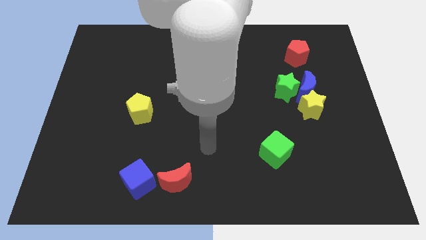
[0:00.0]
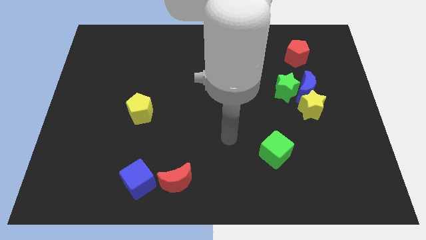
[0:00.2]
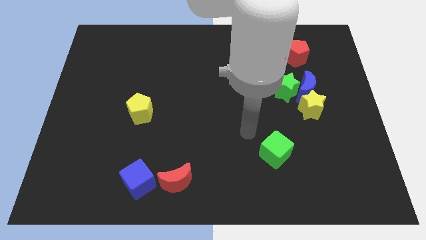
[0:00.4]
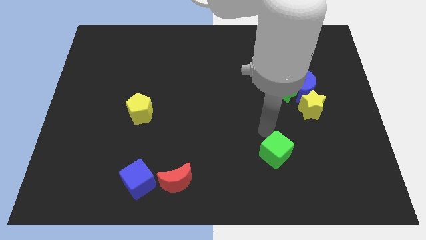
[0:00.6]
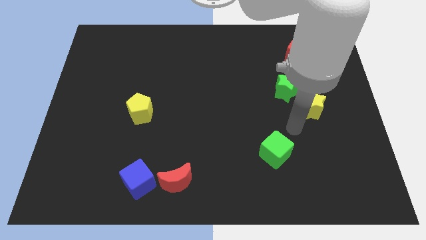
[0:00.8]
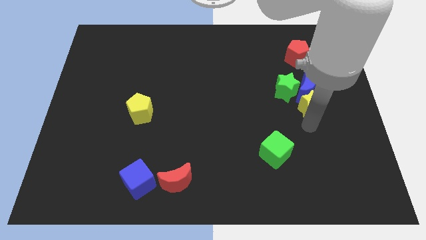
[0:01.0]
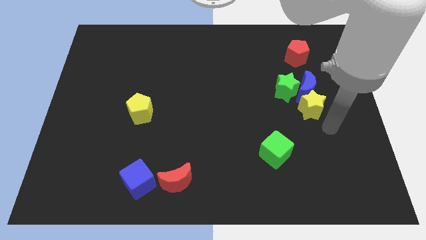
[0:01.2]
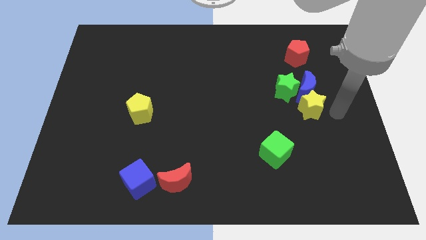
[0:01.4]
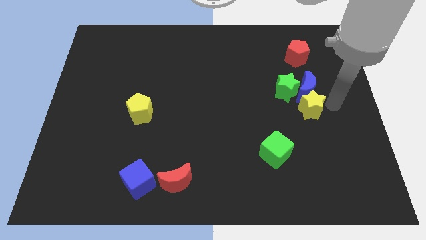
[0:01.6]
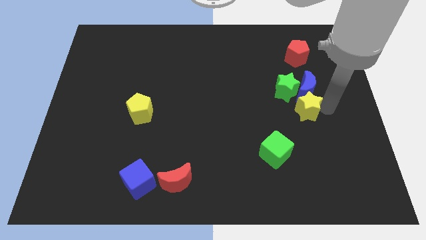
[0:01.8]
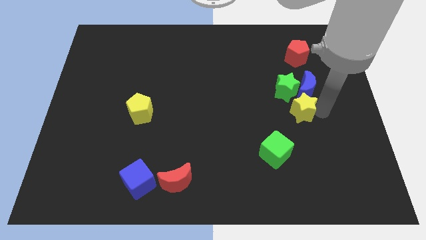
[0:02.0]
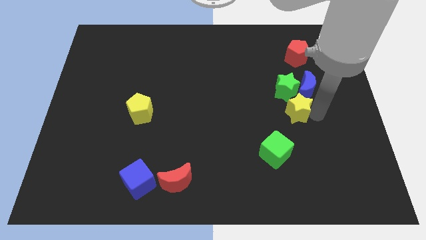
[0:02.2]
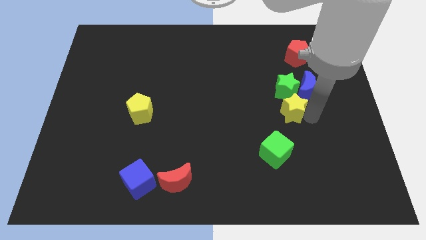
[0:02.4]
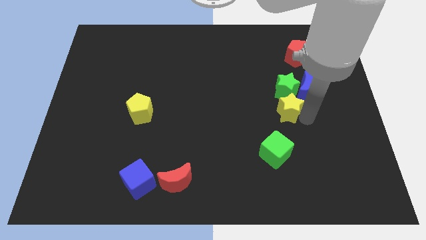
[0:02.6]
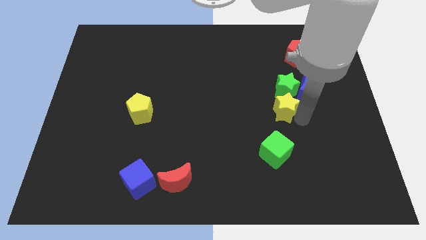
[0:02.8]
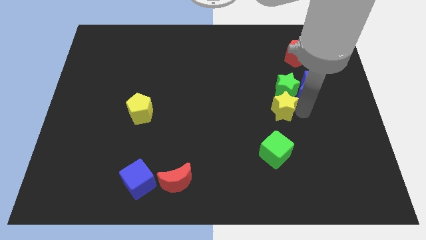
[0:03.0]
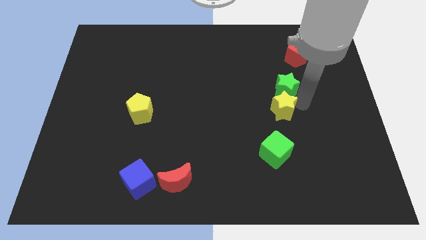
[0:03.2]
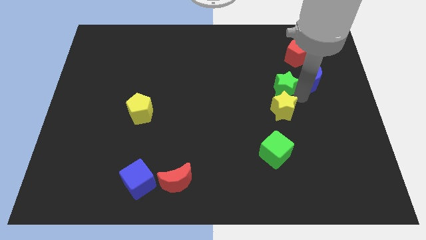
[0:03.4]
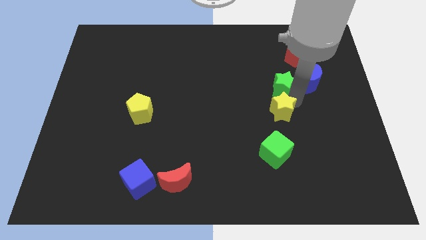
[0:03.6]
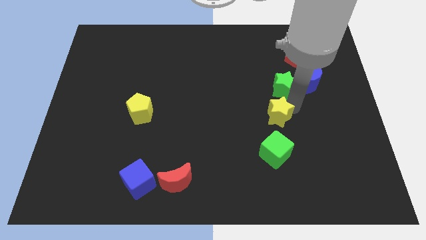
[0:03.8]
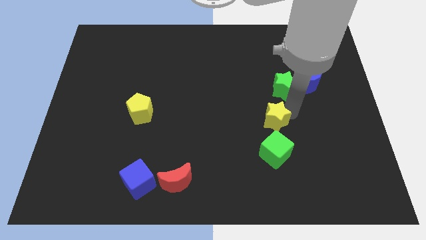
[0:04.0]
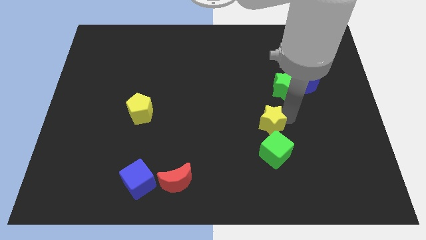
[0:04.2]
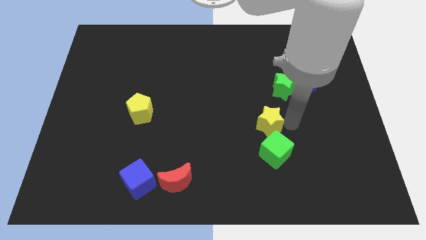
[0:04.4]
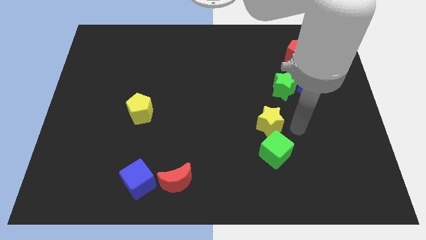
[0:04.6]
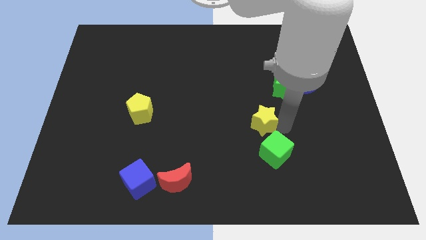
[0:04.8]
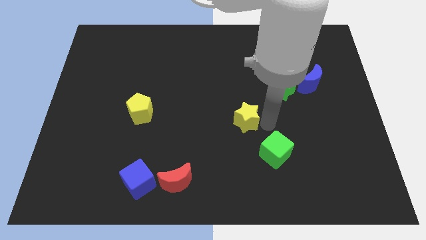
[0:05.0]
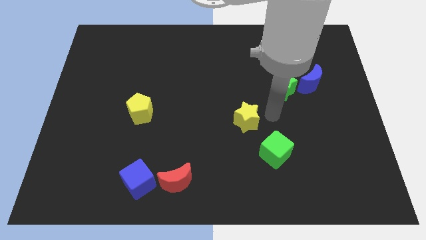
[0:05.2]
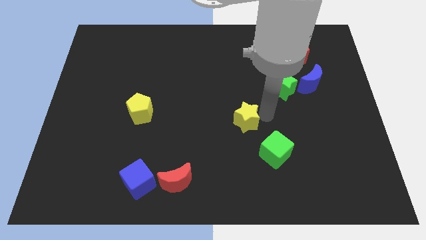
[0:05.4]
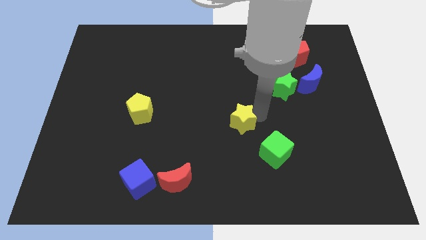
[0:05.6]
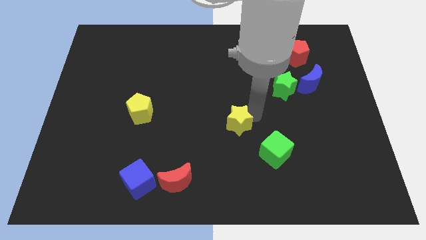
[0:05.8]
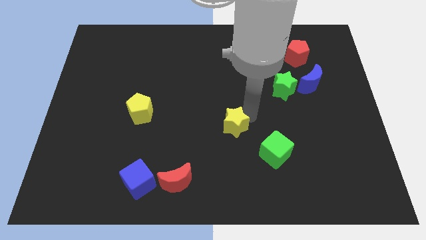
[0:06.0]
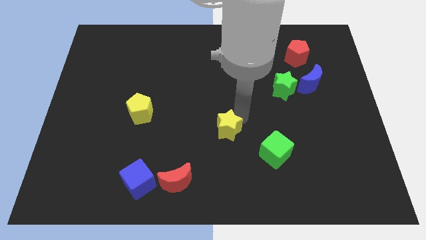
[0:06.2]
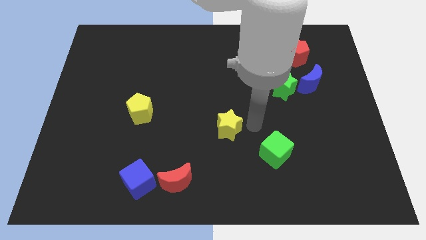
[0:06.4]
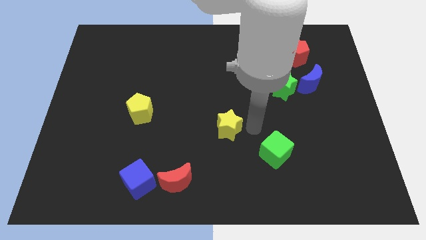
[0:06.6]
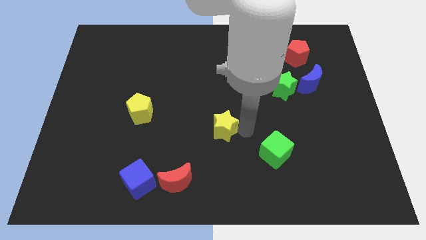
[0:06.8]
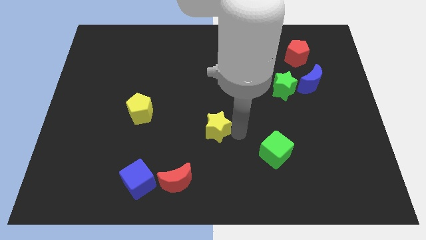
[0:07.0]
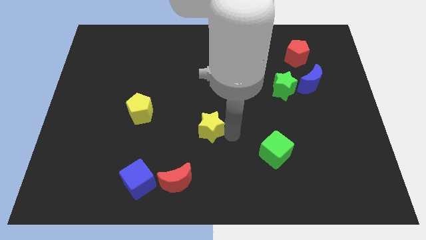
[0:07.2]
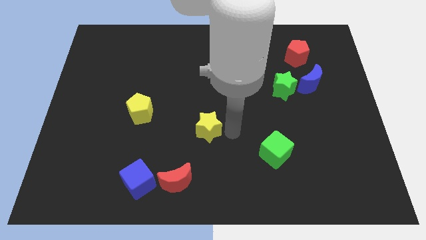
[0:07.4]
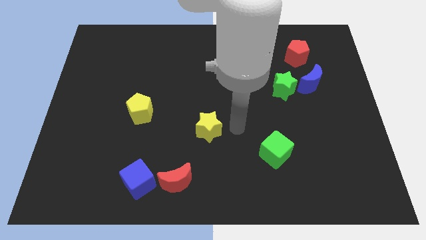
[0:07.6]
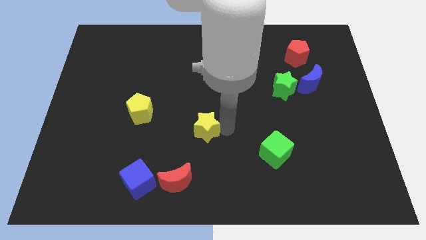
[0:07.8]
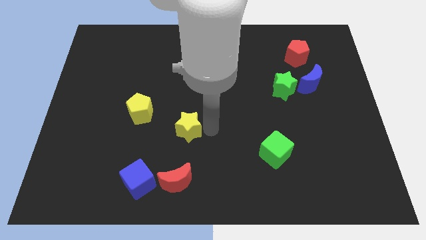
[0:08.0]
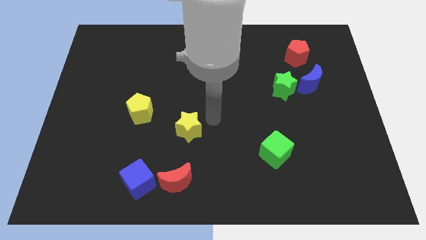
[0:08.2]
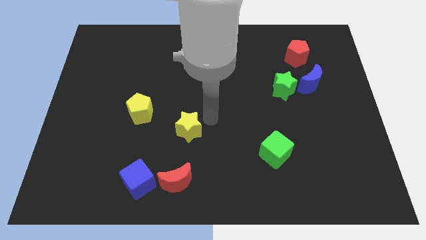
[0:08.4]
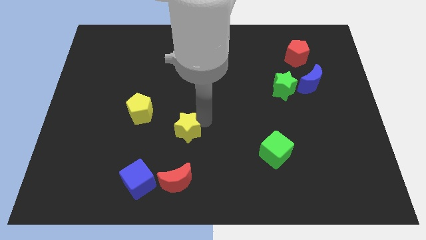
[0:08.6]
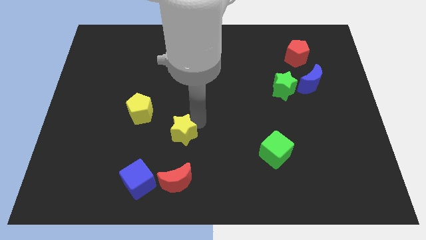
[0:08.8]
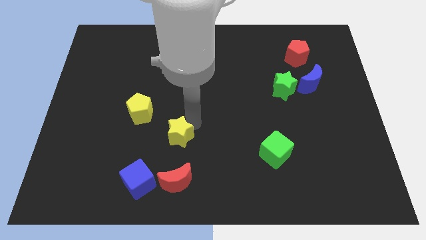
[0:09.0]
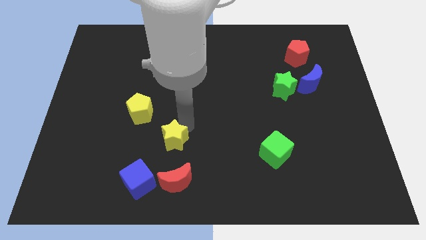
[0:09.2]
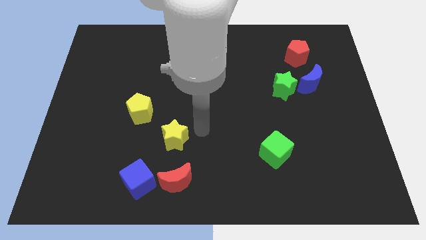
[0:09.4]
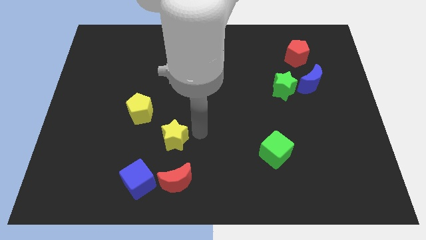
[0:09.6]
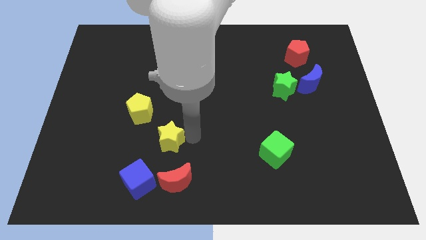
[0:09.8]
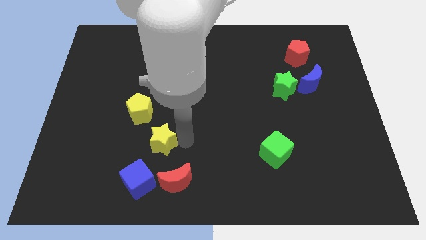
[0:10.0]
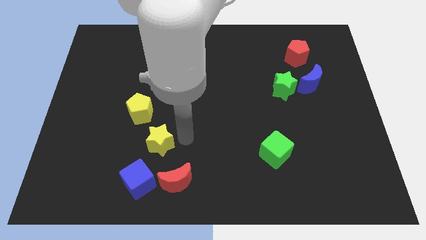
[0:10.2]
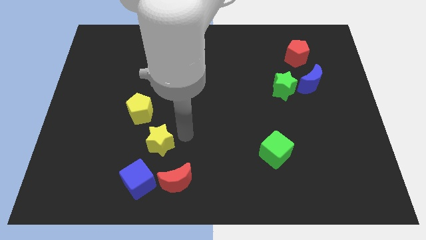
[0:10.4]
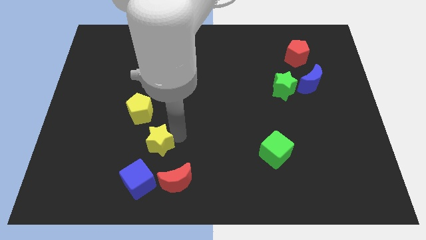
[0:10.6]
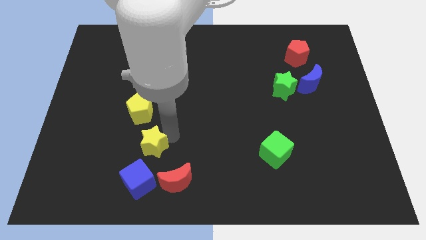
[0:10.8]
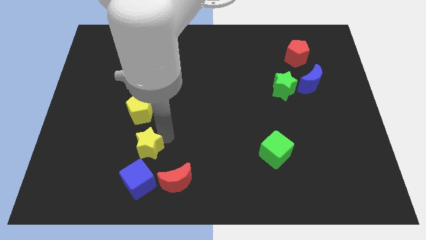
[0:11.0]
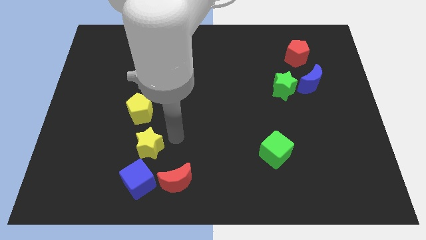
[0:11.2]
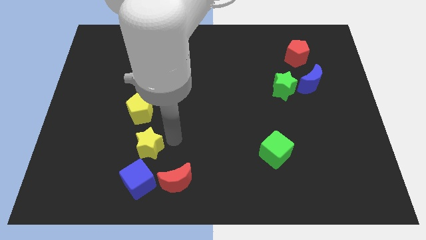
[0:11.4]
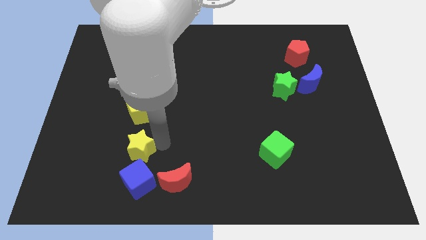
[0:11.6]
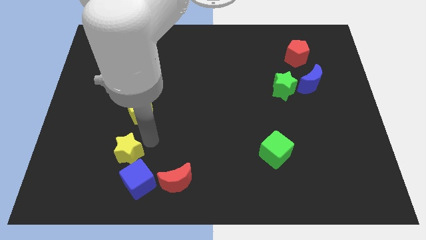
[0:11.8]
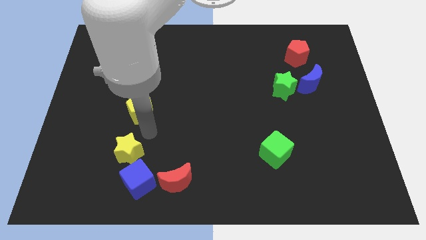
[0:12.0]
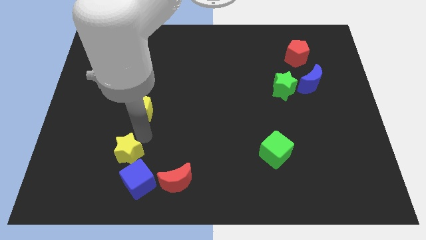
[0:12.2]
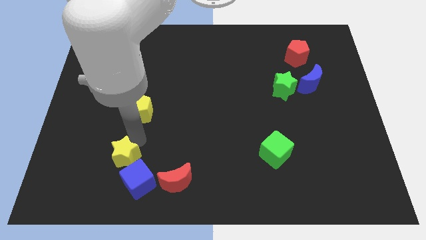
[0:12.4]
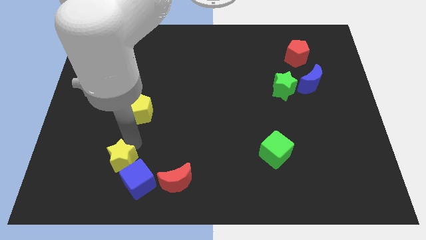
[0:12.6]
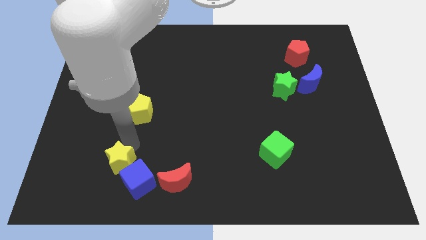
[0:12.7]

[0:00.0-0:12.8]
slide the yellow star to the left side of the blue cube

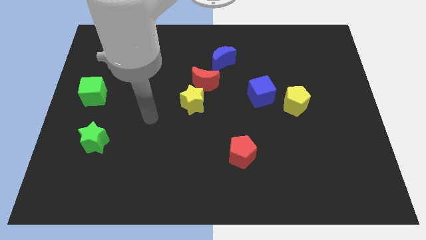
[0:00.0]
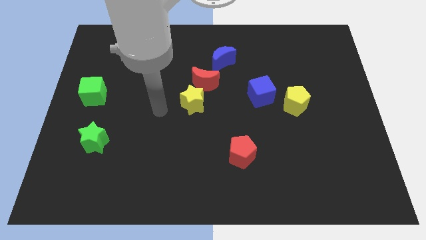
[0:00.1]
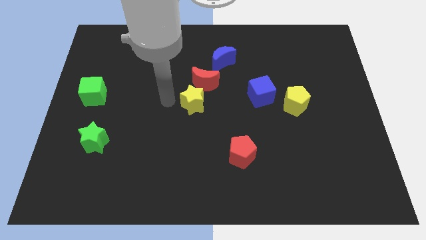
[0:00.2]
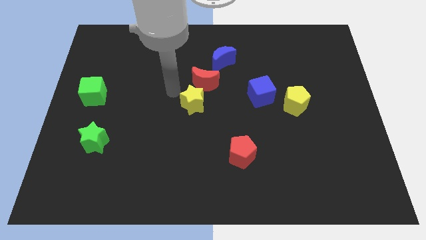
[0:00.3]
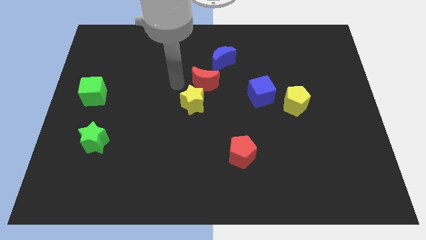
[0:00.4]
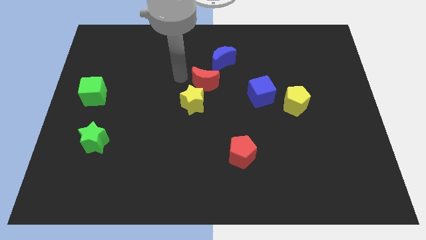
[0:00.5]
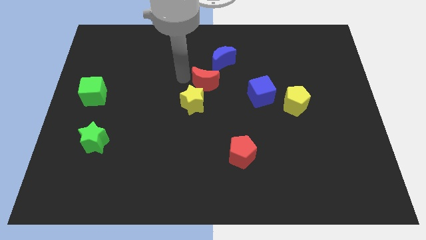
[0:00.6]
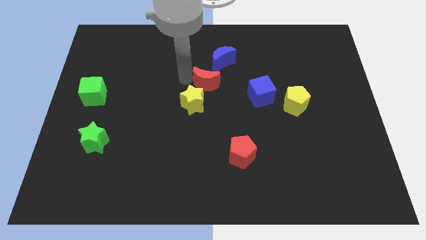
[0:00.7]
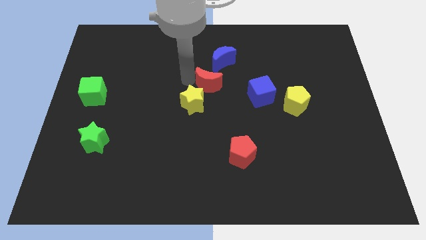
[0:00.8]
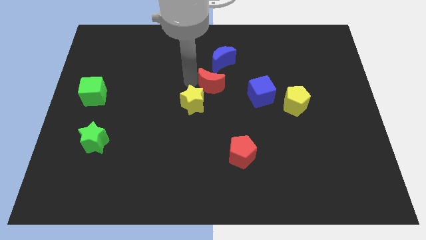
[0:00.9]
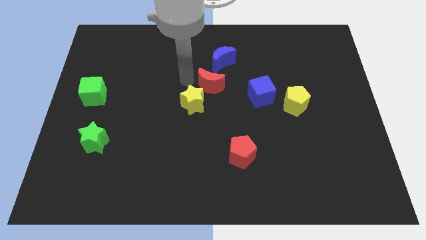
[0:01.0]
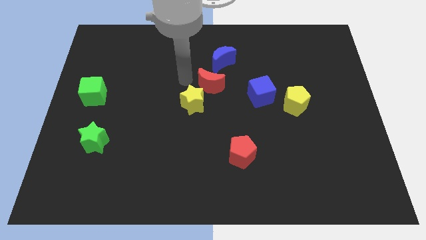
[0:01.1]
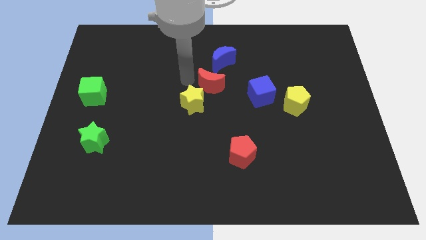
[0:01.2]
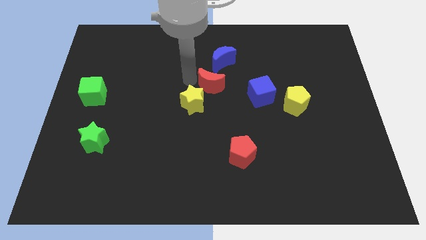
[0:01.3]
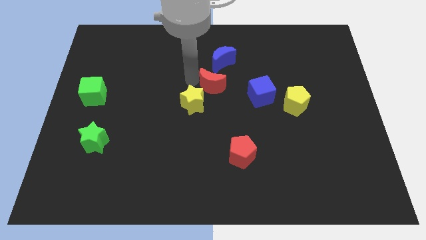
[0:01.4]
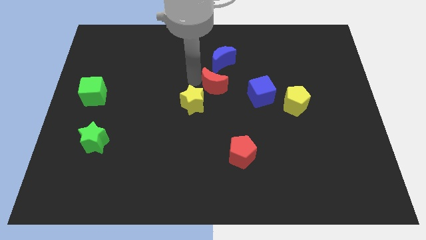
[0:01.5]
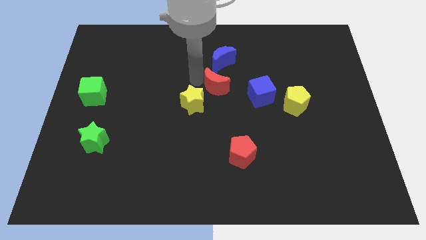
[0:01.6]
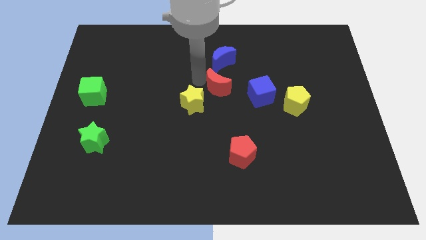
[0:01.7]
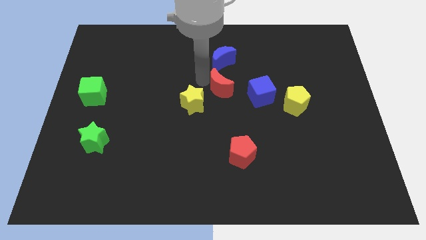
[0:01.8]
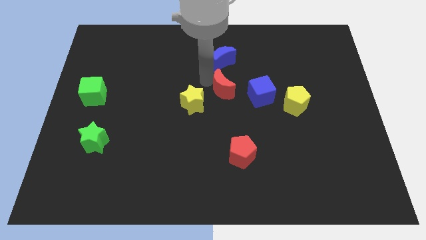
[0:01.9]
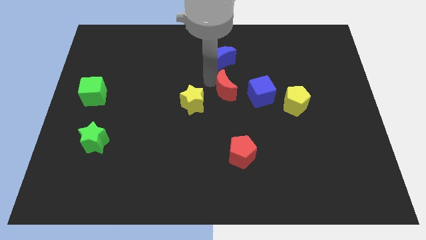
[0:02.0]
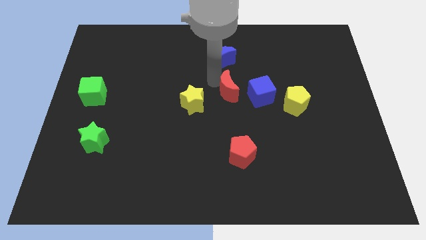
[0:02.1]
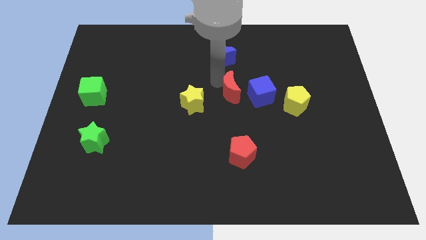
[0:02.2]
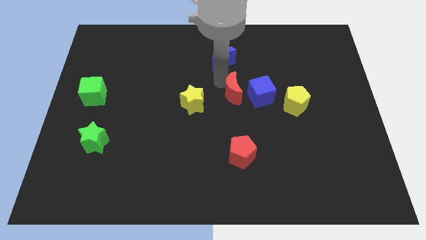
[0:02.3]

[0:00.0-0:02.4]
push the red moon left of the yellow pentagon
